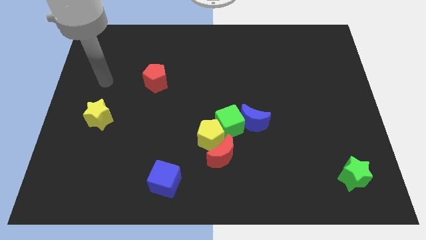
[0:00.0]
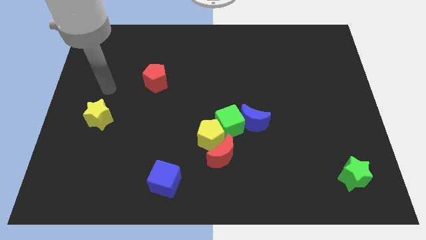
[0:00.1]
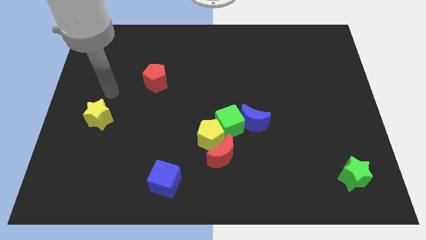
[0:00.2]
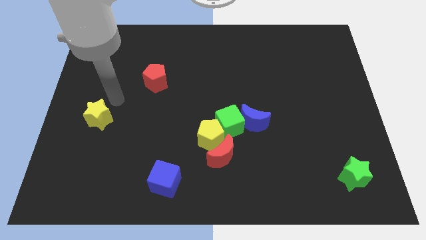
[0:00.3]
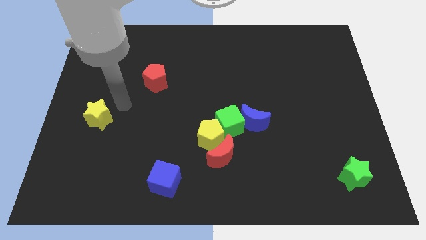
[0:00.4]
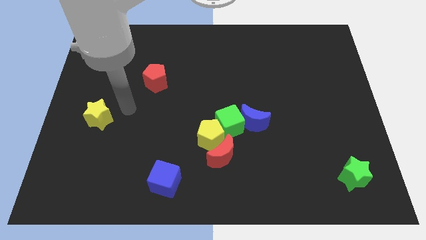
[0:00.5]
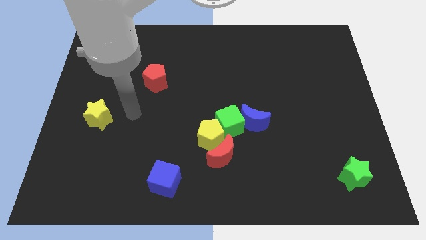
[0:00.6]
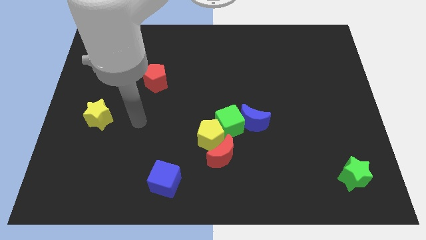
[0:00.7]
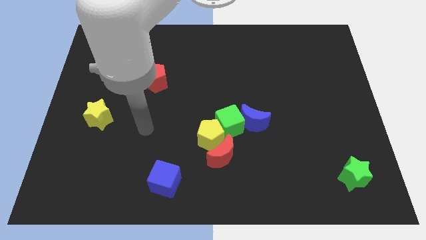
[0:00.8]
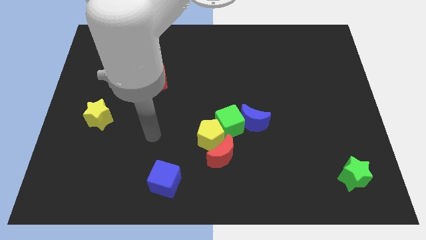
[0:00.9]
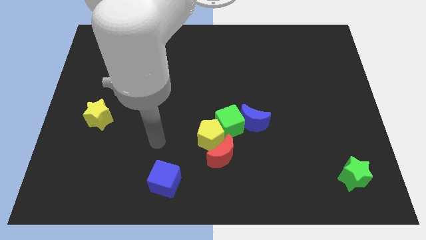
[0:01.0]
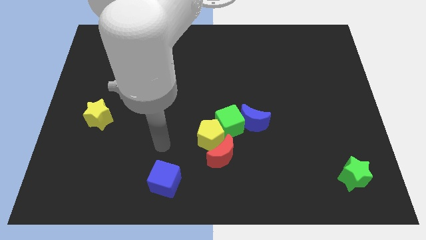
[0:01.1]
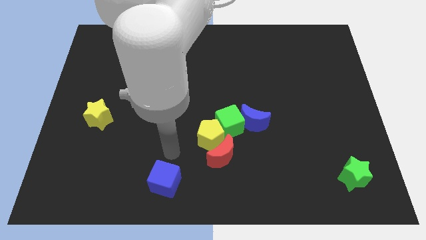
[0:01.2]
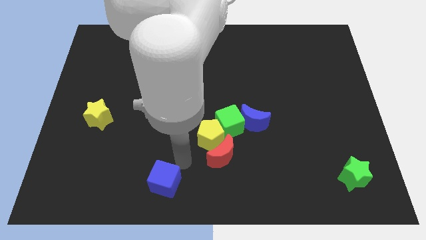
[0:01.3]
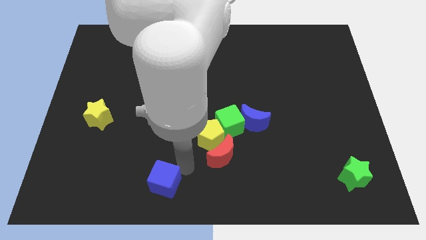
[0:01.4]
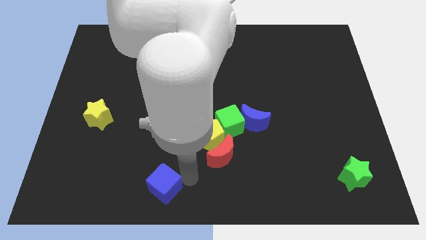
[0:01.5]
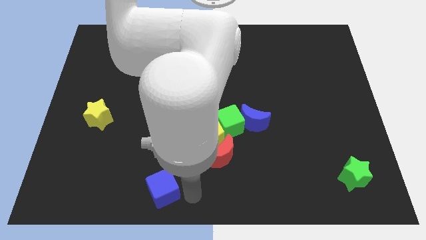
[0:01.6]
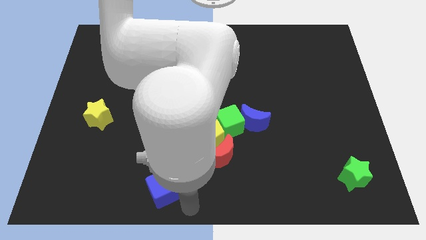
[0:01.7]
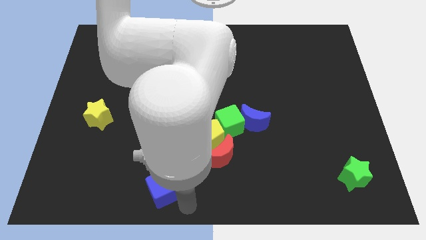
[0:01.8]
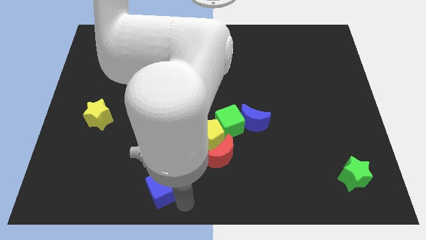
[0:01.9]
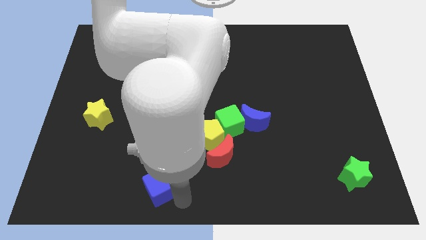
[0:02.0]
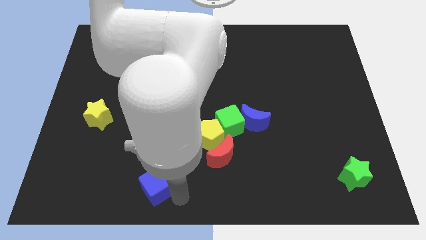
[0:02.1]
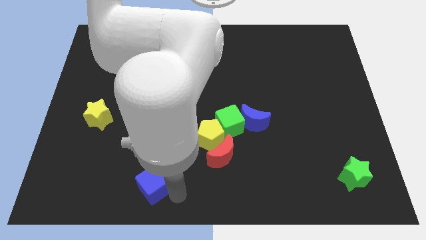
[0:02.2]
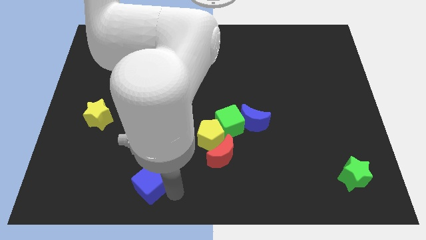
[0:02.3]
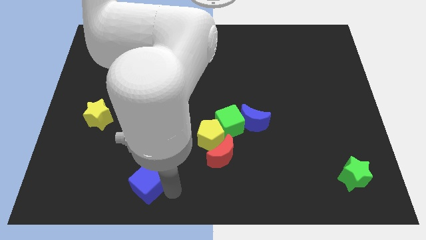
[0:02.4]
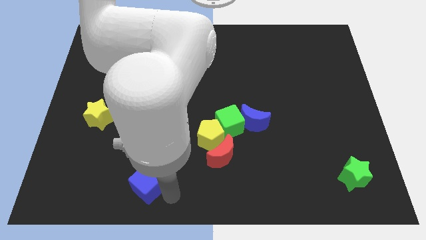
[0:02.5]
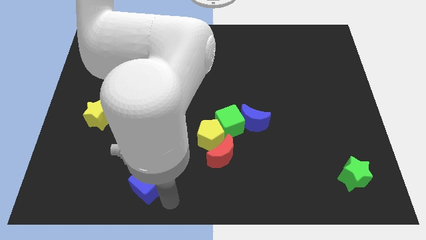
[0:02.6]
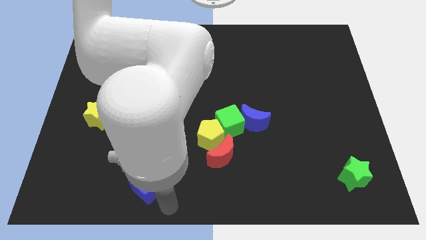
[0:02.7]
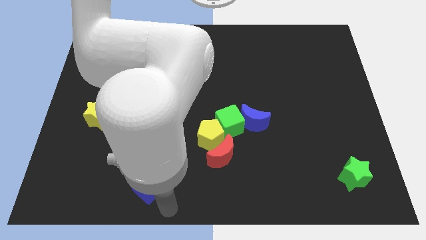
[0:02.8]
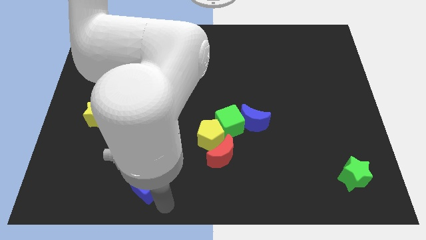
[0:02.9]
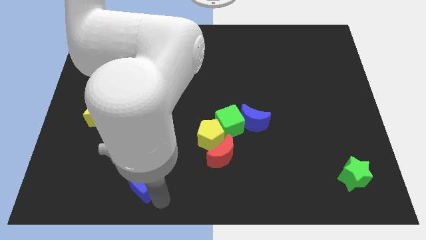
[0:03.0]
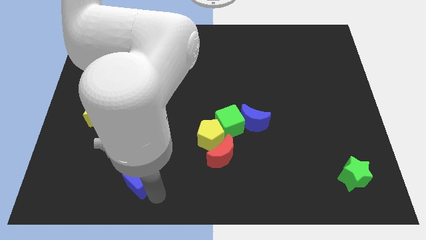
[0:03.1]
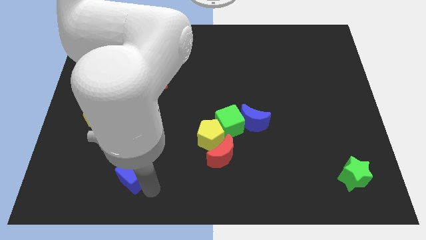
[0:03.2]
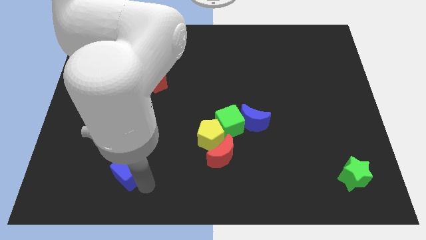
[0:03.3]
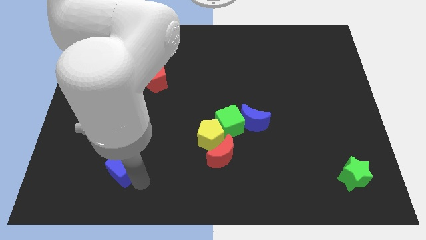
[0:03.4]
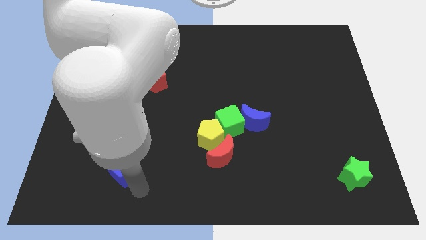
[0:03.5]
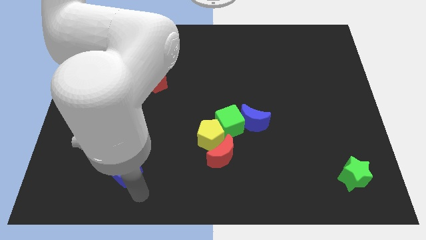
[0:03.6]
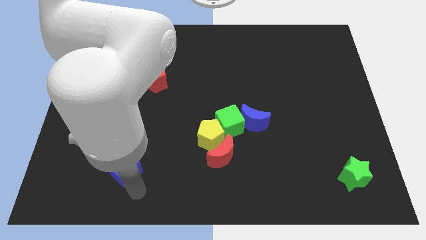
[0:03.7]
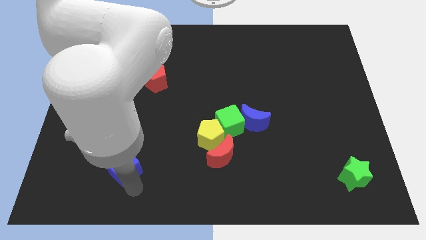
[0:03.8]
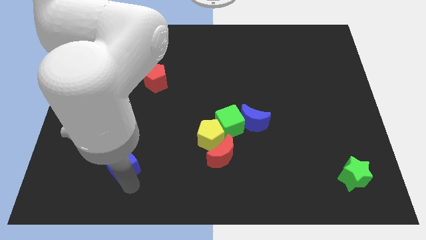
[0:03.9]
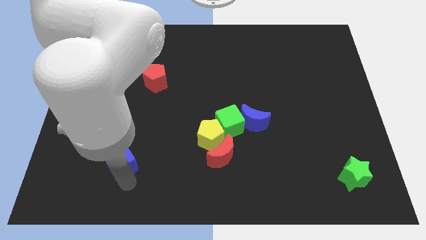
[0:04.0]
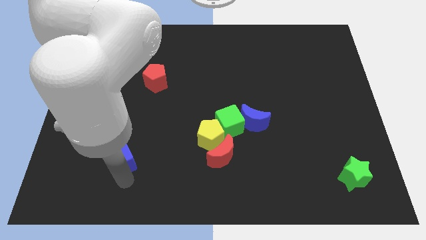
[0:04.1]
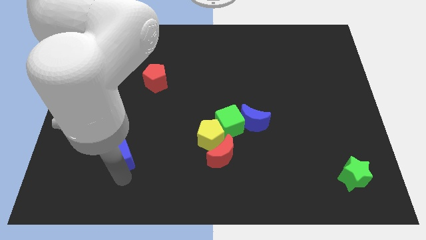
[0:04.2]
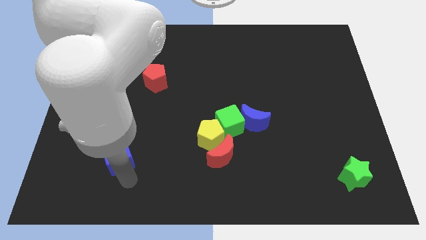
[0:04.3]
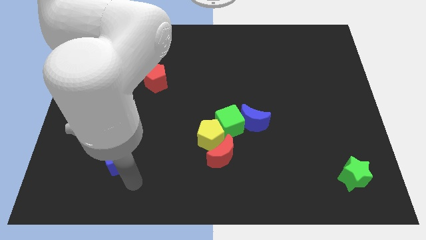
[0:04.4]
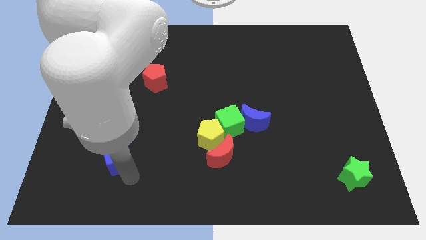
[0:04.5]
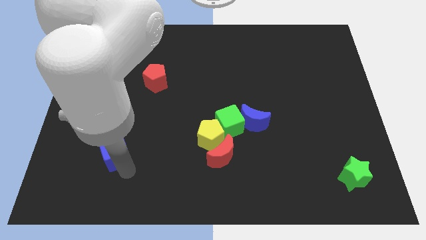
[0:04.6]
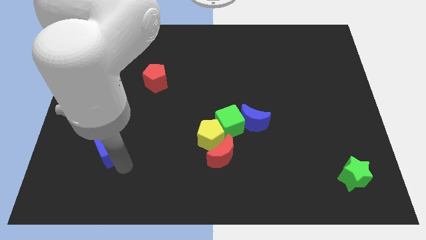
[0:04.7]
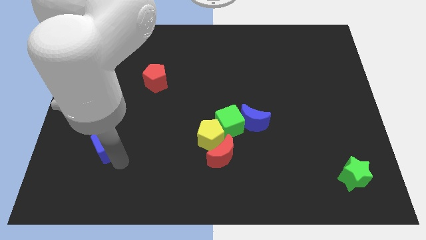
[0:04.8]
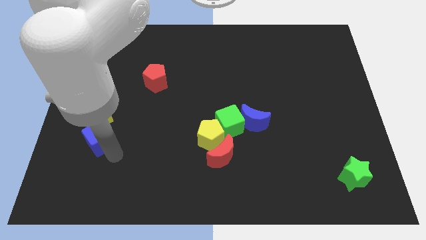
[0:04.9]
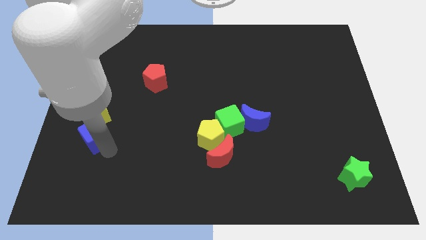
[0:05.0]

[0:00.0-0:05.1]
move the blue cube close to the yellow star
